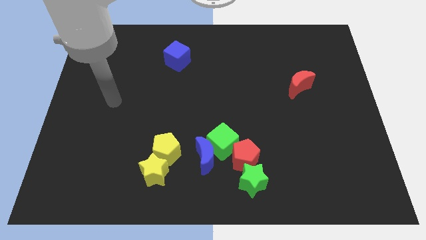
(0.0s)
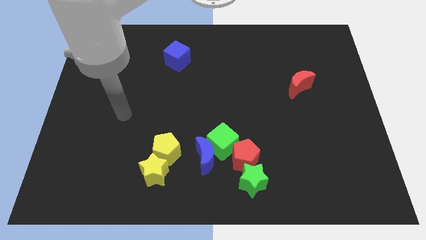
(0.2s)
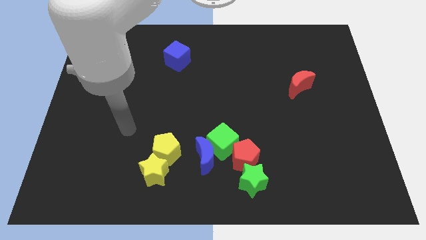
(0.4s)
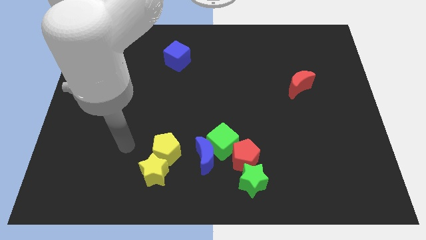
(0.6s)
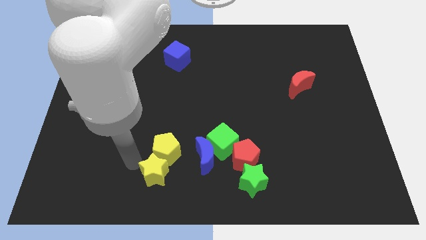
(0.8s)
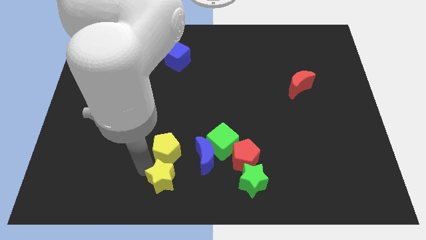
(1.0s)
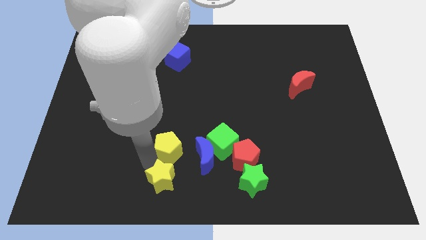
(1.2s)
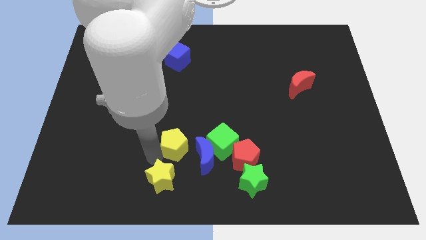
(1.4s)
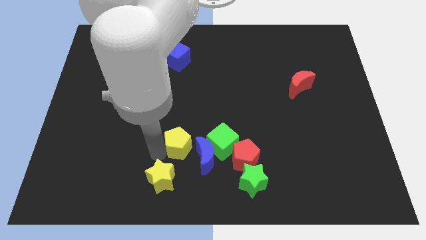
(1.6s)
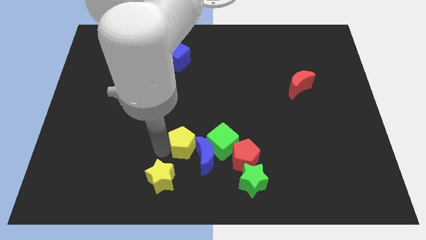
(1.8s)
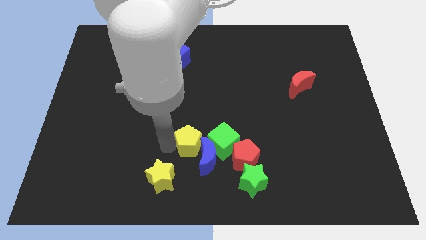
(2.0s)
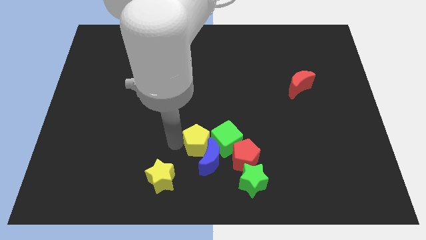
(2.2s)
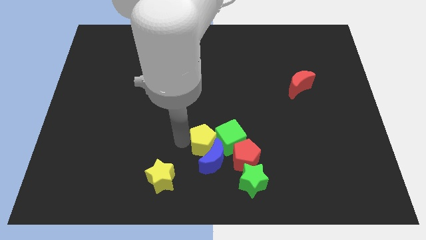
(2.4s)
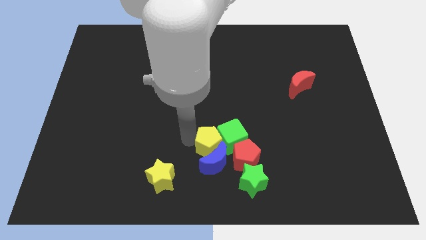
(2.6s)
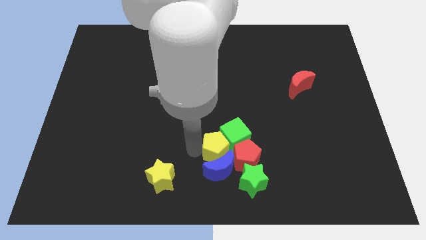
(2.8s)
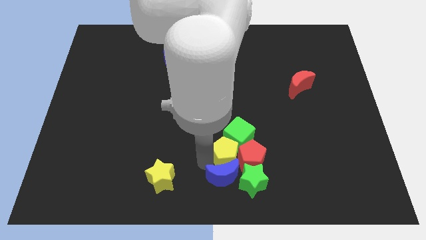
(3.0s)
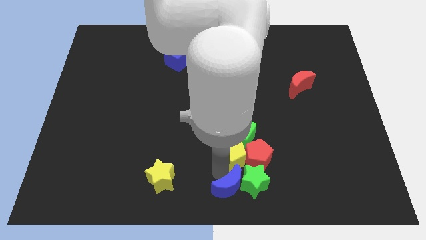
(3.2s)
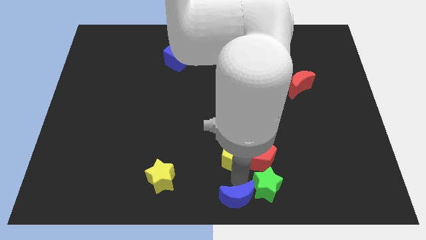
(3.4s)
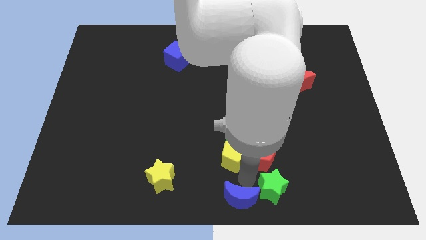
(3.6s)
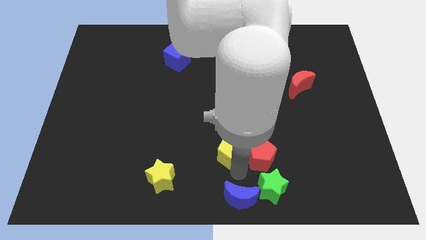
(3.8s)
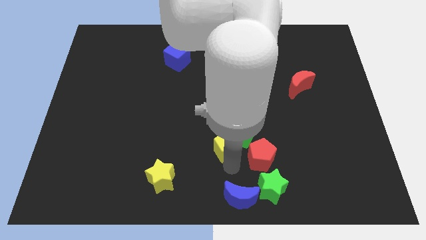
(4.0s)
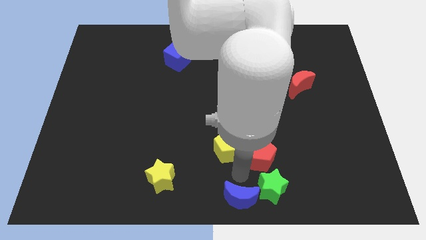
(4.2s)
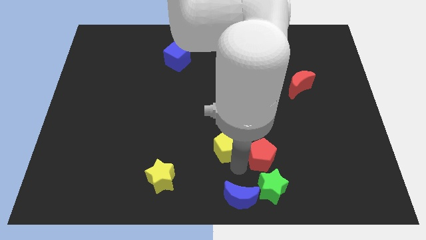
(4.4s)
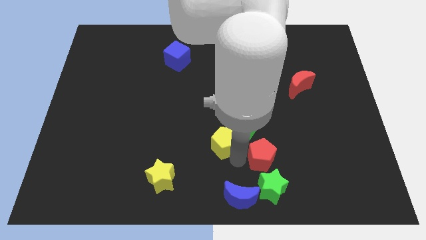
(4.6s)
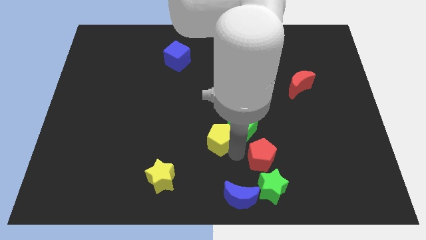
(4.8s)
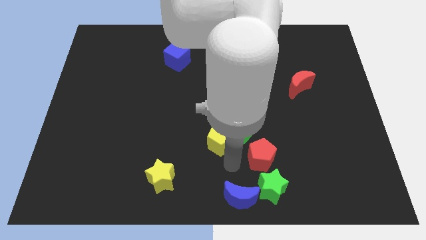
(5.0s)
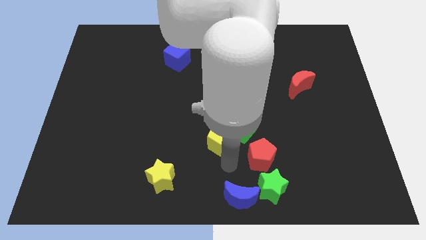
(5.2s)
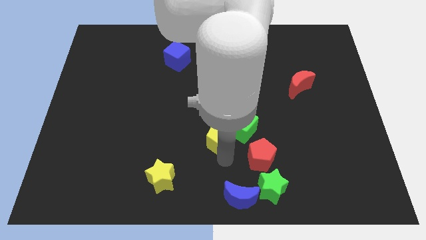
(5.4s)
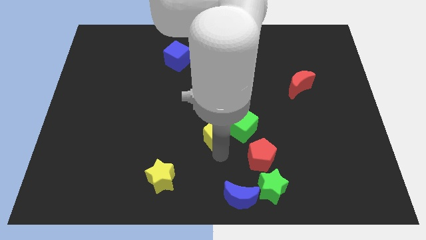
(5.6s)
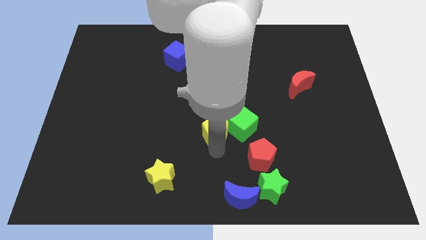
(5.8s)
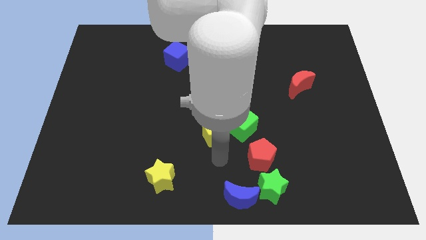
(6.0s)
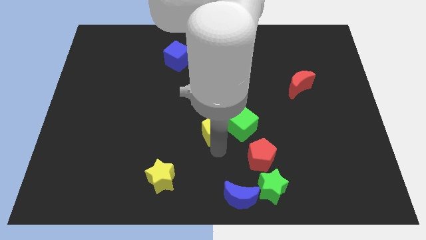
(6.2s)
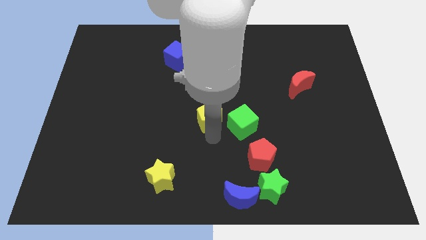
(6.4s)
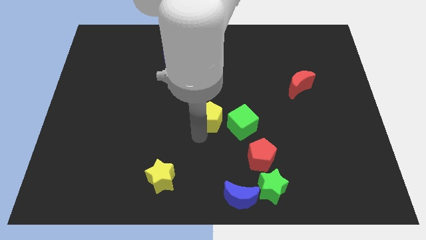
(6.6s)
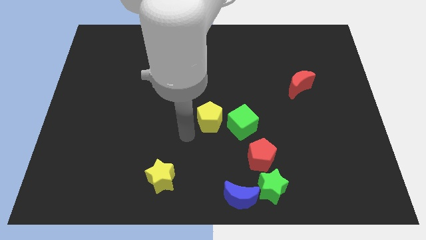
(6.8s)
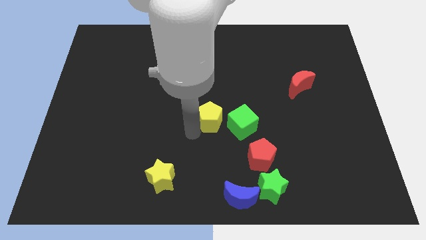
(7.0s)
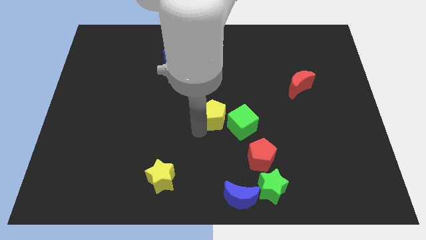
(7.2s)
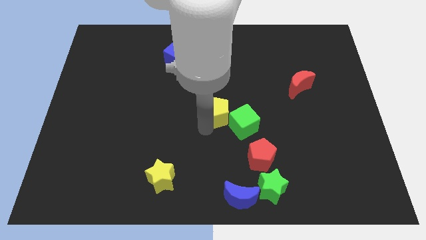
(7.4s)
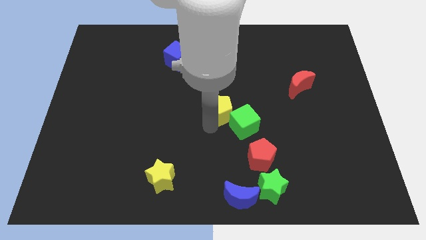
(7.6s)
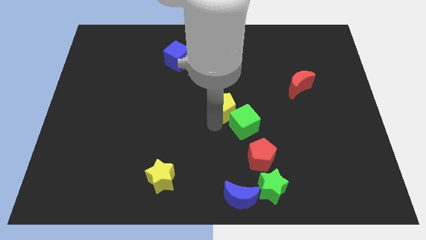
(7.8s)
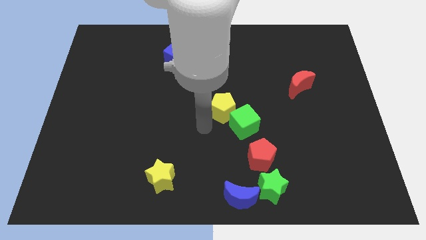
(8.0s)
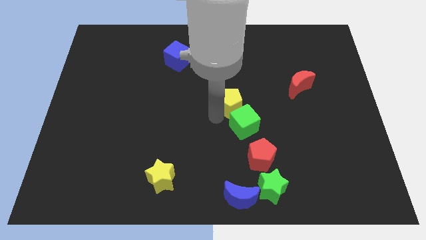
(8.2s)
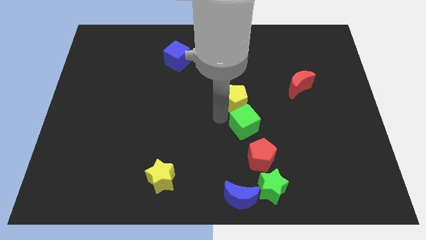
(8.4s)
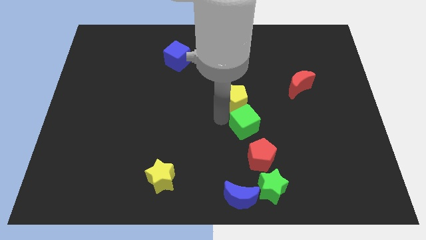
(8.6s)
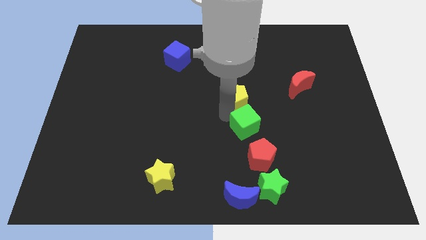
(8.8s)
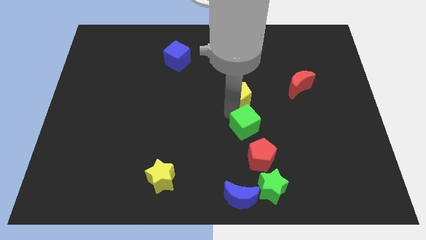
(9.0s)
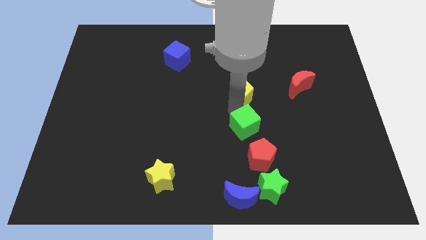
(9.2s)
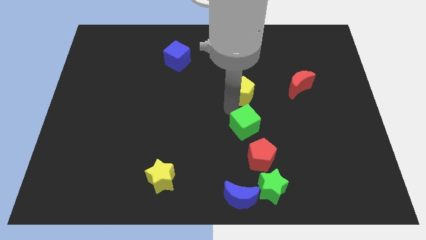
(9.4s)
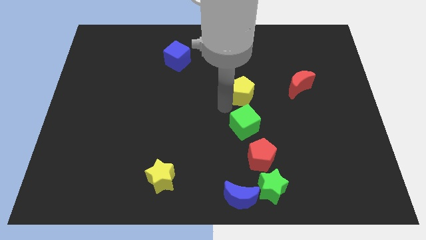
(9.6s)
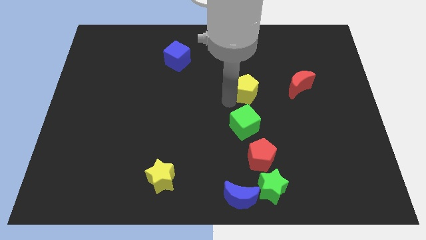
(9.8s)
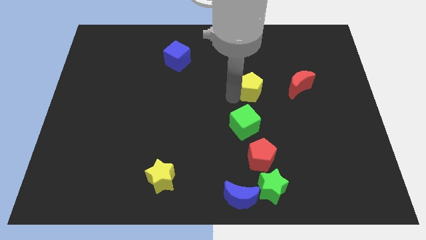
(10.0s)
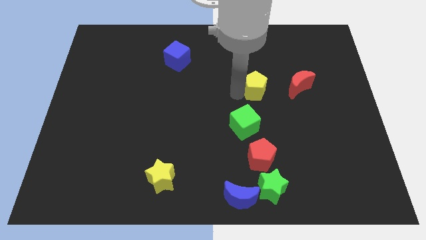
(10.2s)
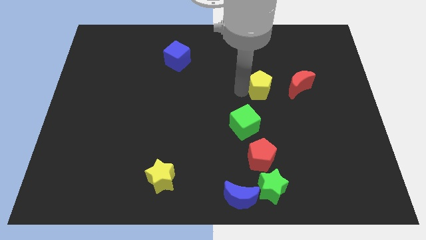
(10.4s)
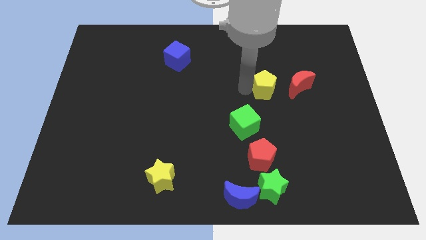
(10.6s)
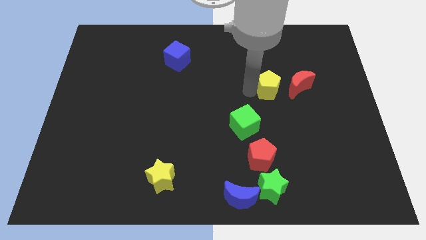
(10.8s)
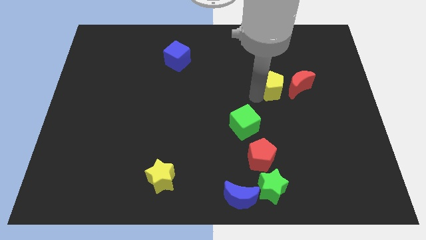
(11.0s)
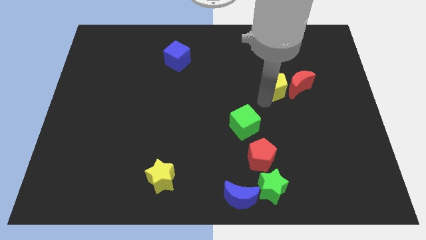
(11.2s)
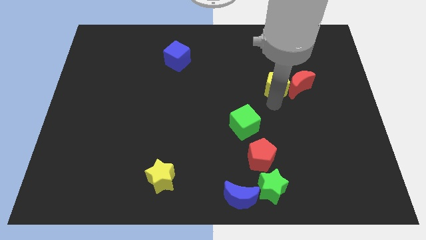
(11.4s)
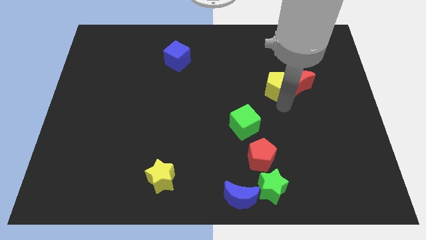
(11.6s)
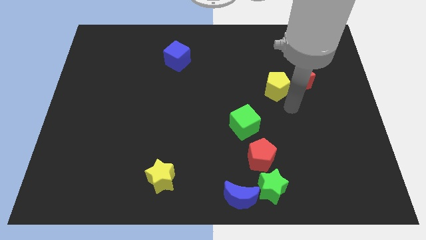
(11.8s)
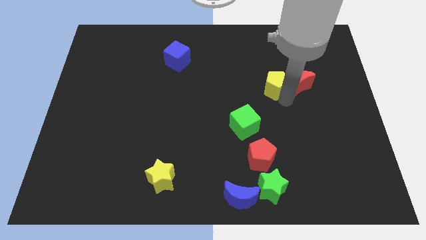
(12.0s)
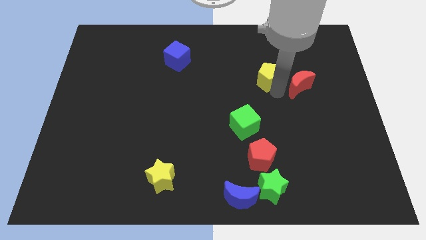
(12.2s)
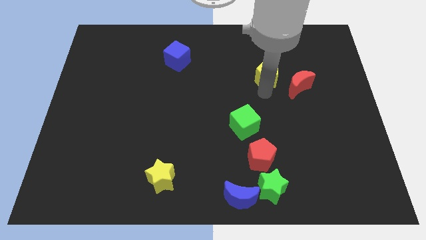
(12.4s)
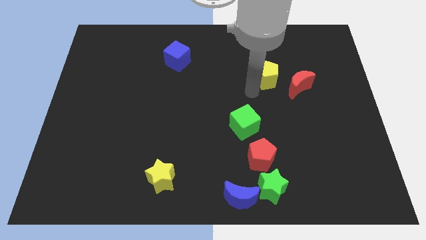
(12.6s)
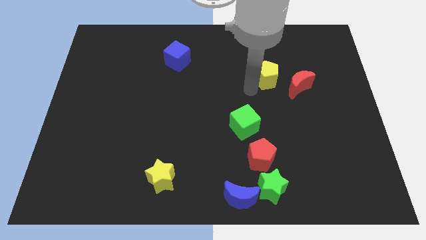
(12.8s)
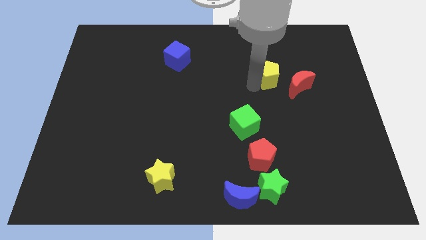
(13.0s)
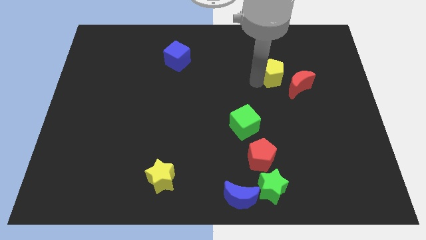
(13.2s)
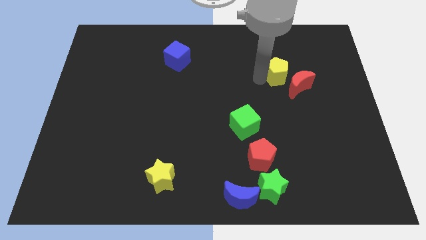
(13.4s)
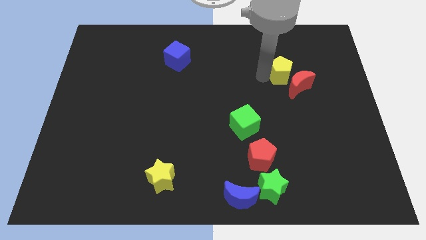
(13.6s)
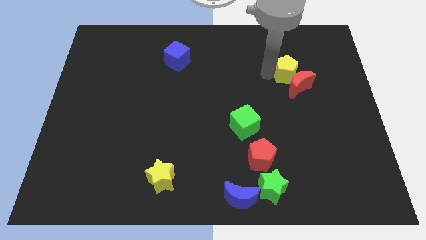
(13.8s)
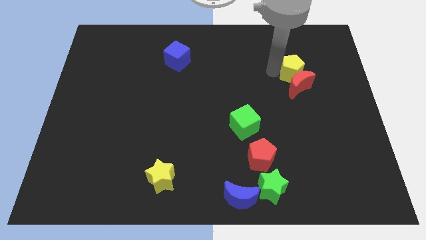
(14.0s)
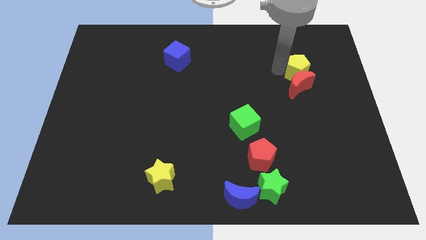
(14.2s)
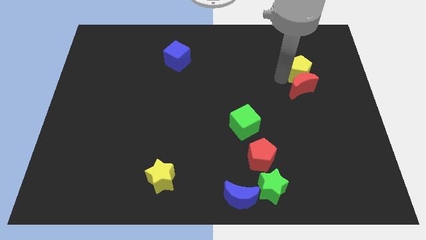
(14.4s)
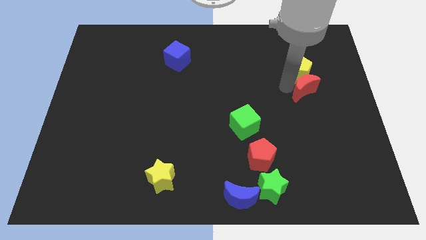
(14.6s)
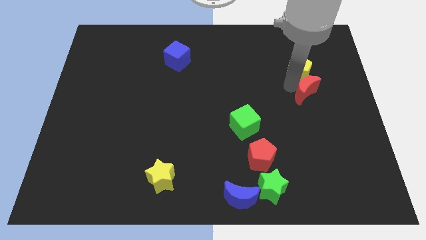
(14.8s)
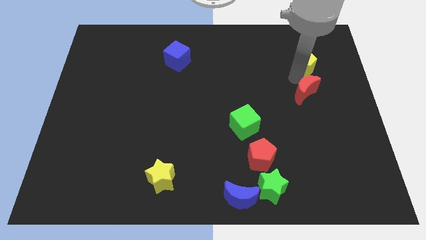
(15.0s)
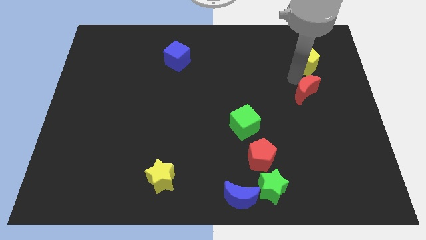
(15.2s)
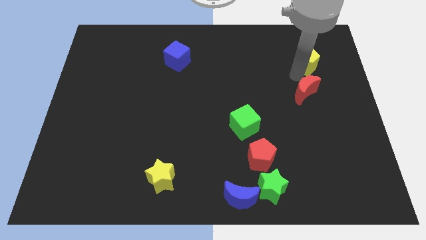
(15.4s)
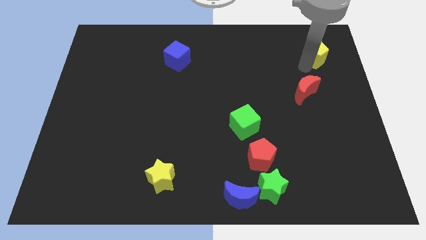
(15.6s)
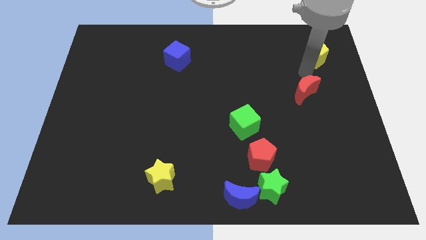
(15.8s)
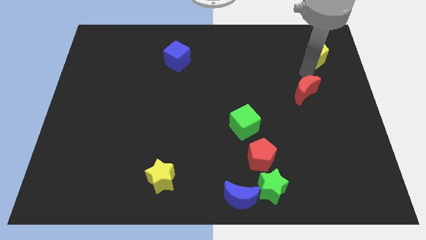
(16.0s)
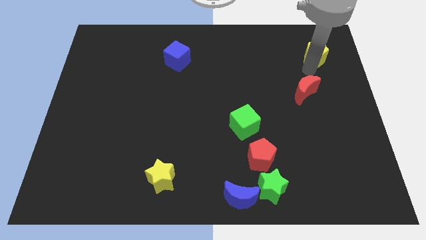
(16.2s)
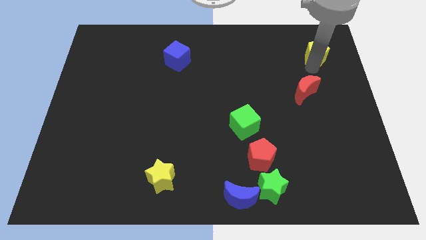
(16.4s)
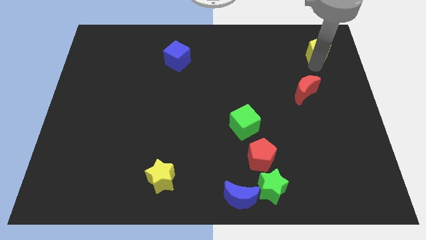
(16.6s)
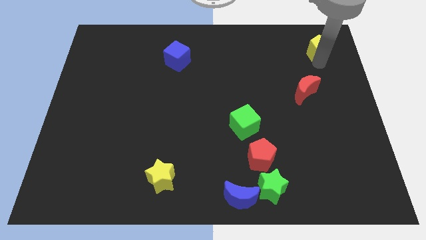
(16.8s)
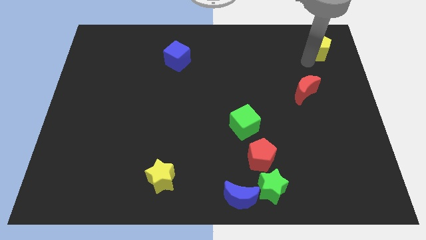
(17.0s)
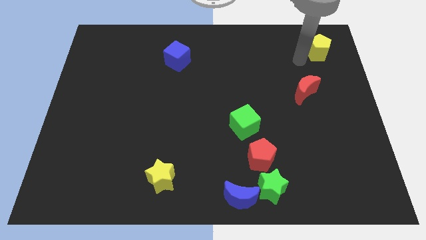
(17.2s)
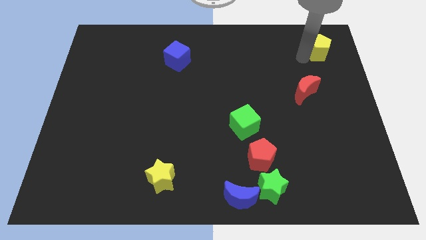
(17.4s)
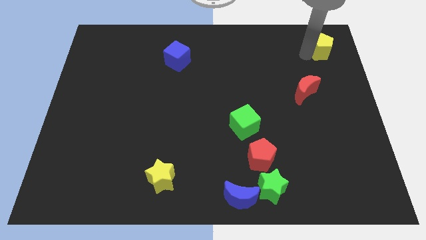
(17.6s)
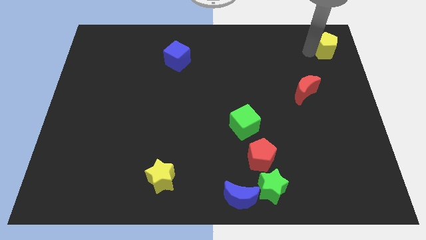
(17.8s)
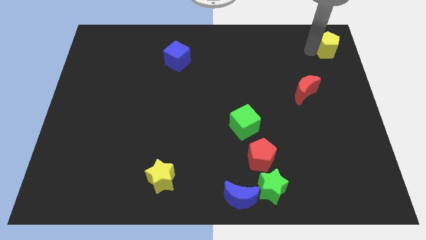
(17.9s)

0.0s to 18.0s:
push the yellow pentagon to the top right
